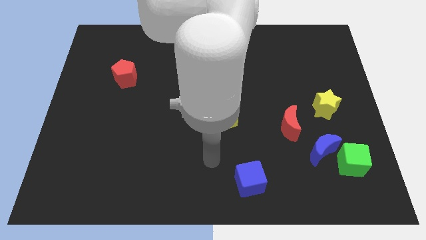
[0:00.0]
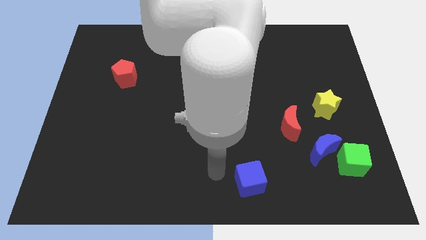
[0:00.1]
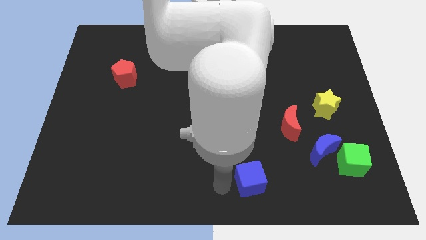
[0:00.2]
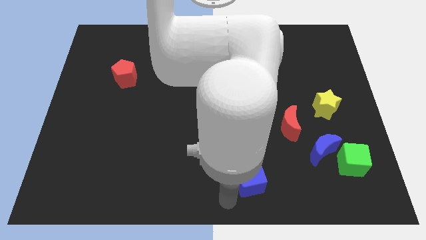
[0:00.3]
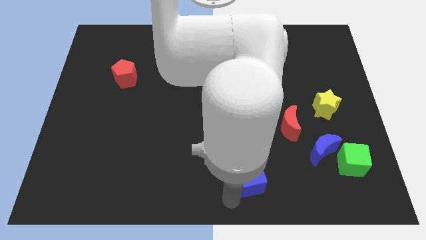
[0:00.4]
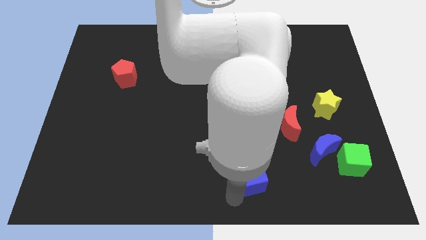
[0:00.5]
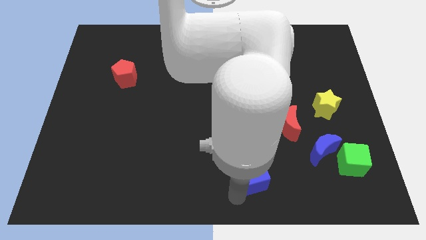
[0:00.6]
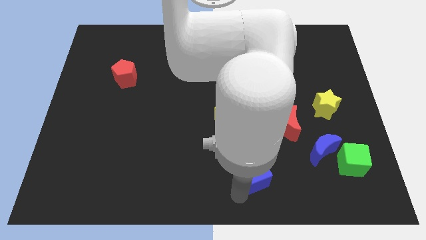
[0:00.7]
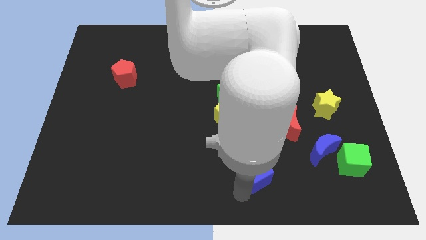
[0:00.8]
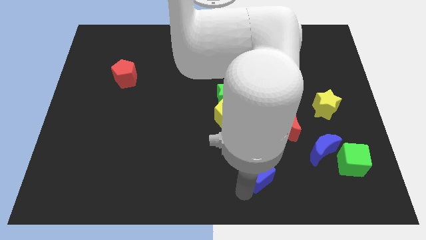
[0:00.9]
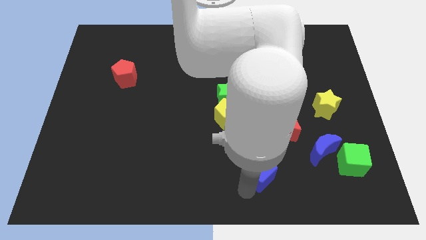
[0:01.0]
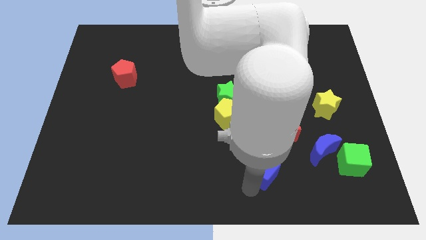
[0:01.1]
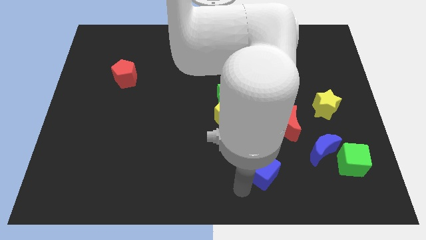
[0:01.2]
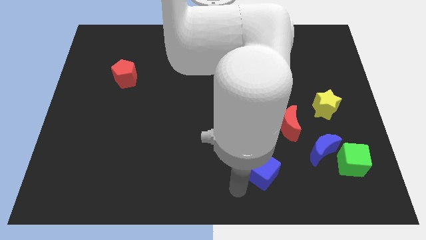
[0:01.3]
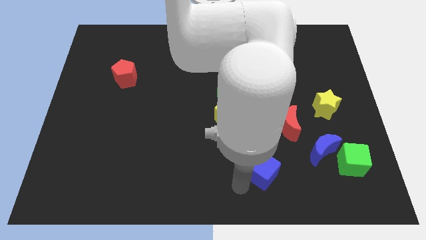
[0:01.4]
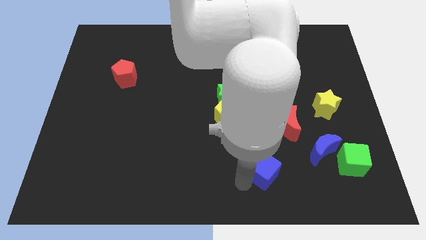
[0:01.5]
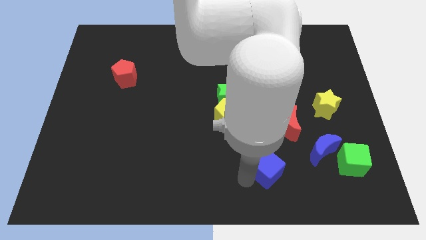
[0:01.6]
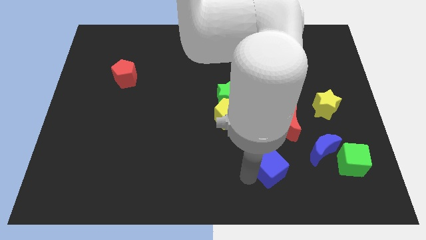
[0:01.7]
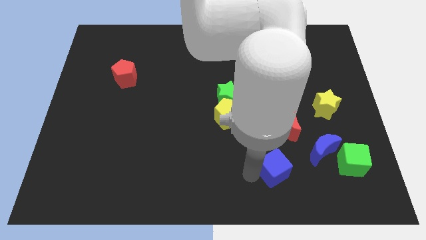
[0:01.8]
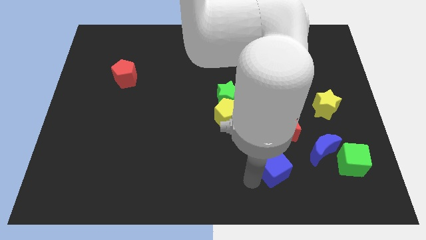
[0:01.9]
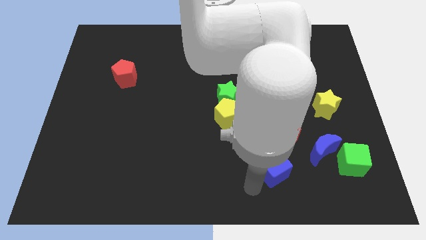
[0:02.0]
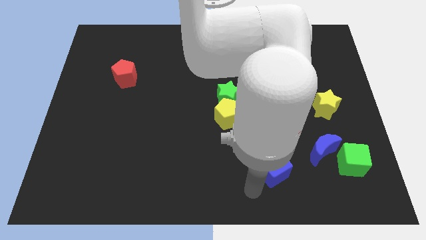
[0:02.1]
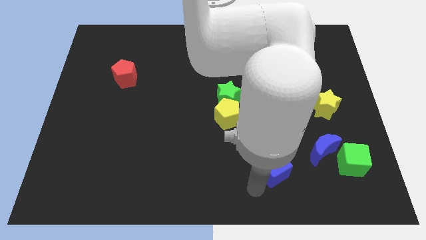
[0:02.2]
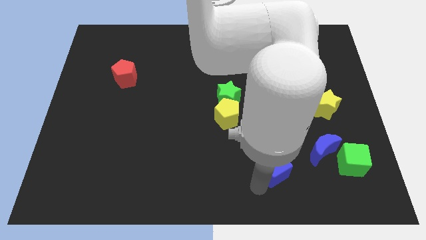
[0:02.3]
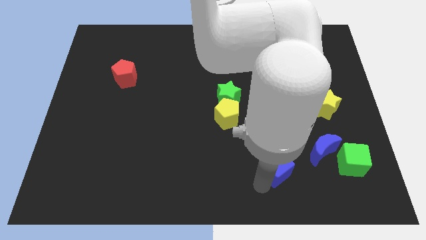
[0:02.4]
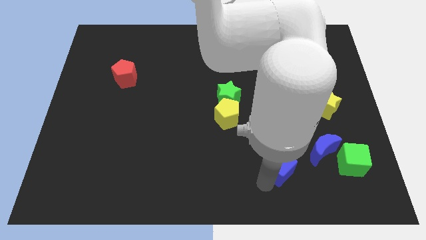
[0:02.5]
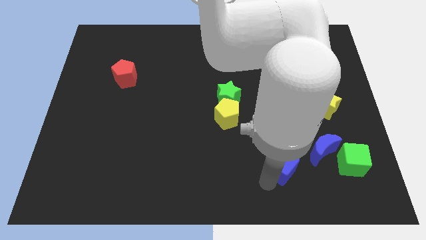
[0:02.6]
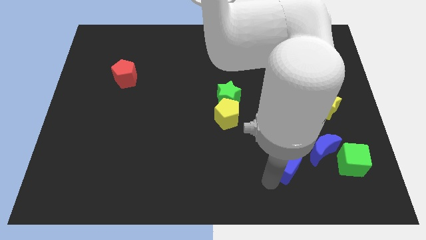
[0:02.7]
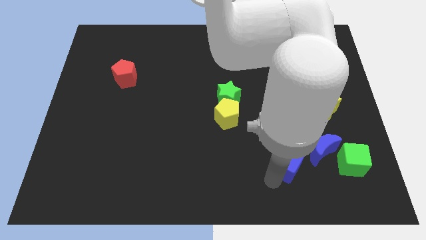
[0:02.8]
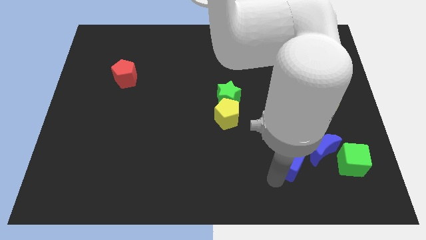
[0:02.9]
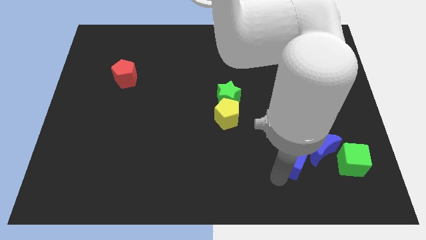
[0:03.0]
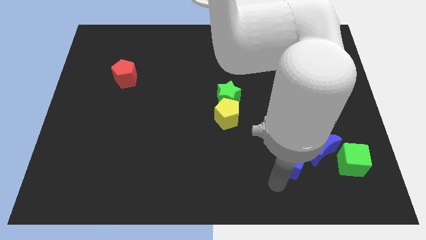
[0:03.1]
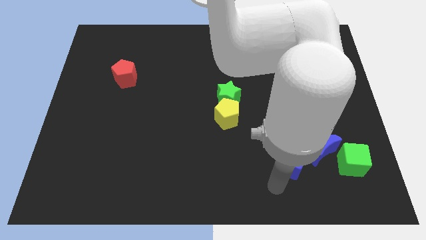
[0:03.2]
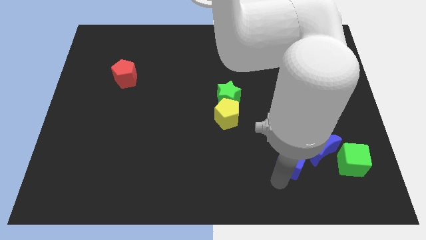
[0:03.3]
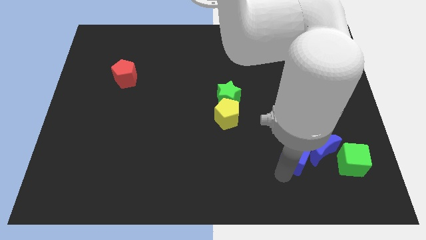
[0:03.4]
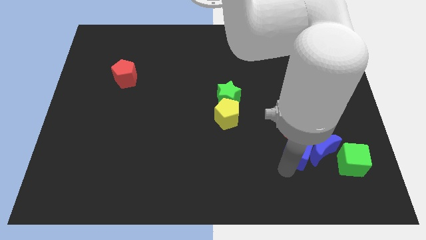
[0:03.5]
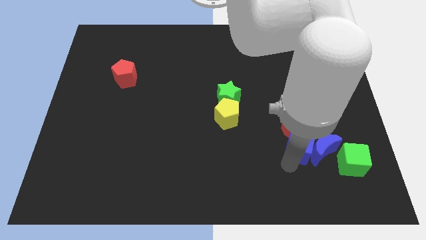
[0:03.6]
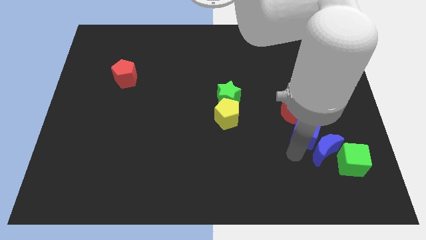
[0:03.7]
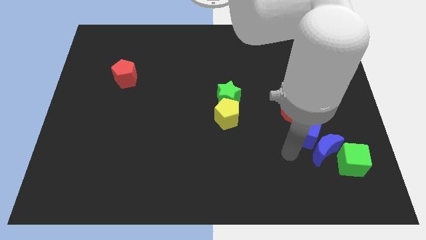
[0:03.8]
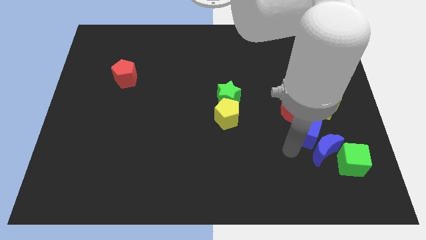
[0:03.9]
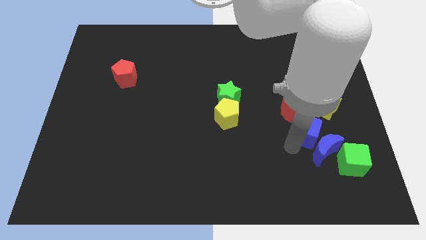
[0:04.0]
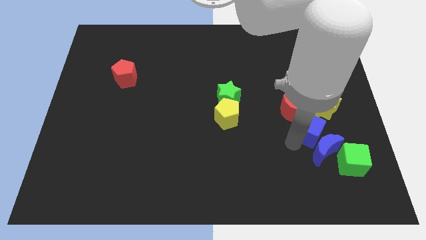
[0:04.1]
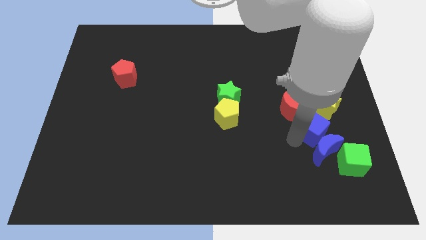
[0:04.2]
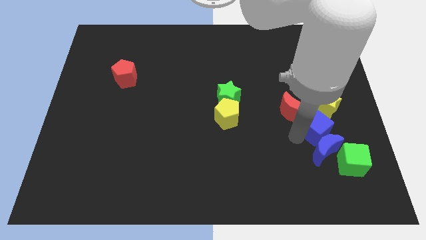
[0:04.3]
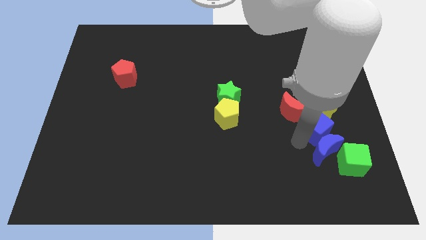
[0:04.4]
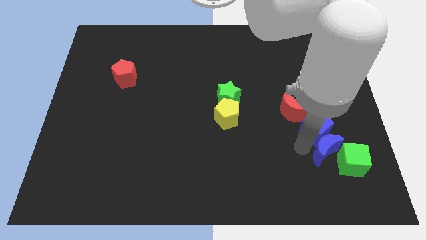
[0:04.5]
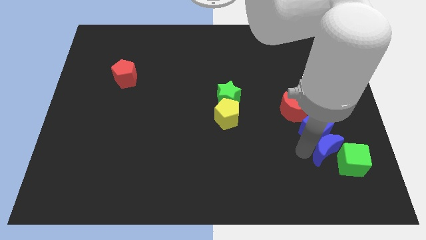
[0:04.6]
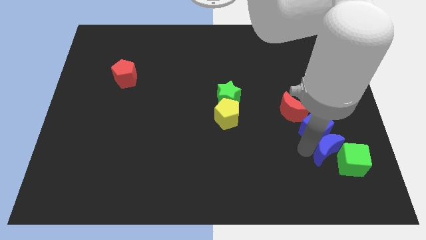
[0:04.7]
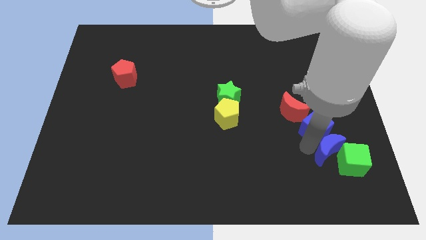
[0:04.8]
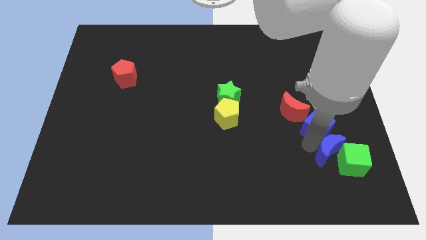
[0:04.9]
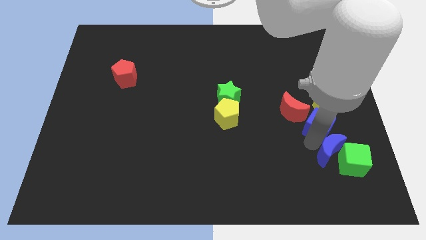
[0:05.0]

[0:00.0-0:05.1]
put the blue cube to the yellow star

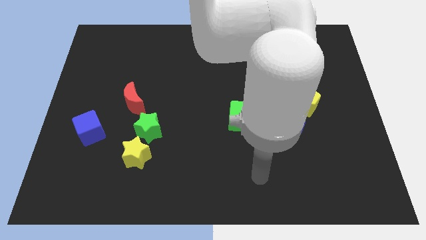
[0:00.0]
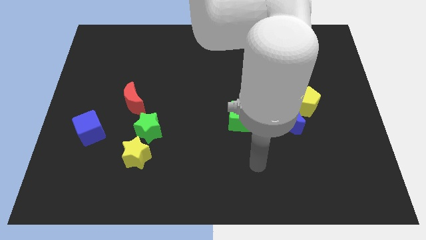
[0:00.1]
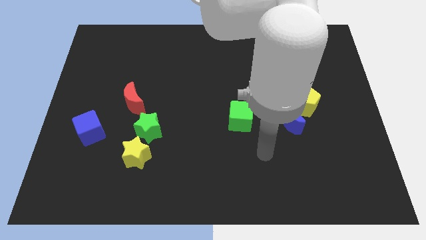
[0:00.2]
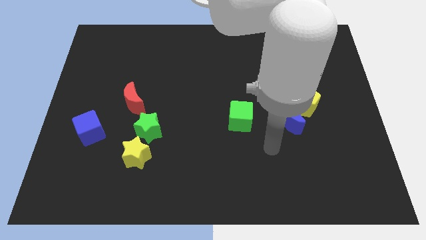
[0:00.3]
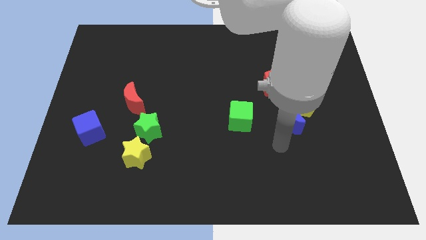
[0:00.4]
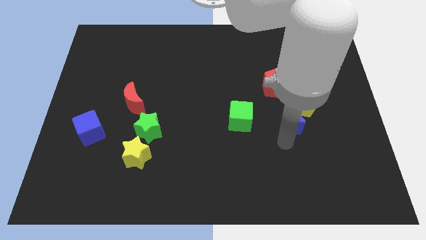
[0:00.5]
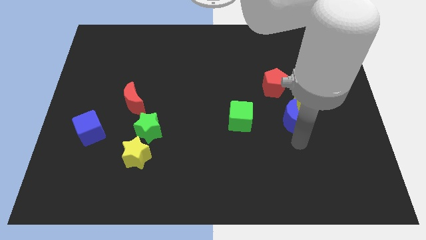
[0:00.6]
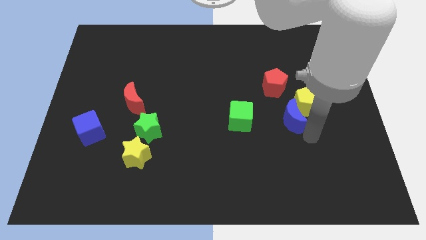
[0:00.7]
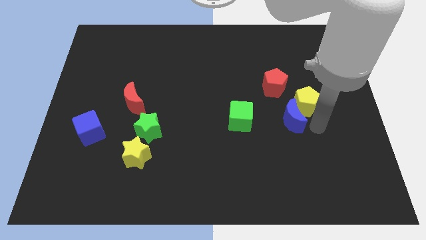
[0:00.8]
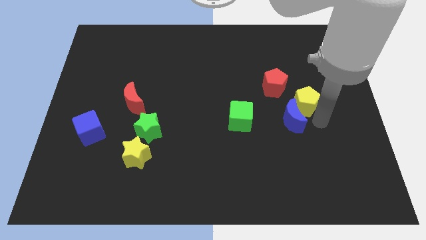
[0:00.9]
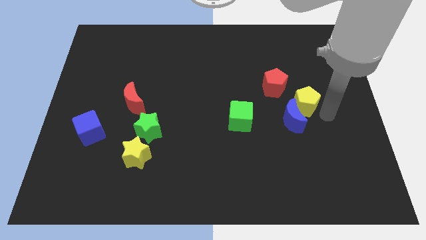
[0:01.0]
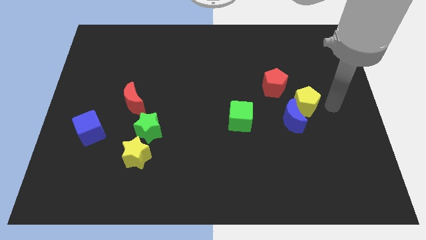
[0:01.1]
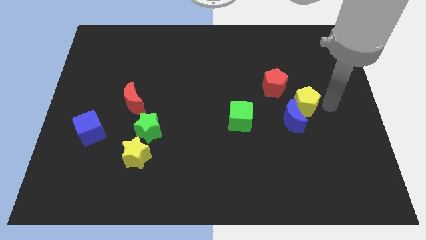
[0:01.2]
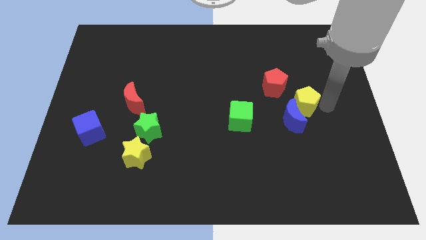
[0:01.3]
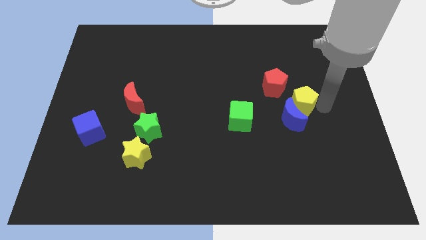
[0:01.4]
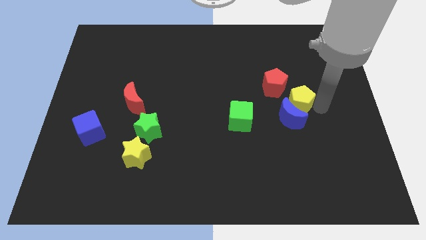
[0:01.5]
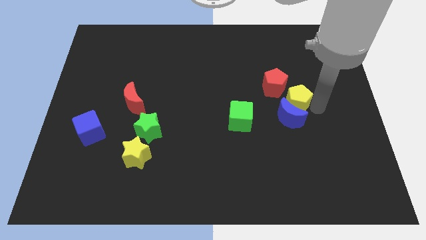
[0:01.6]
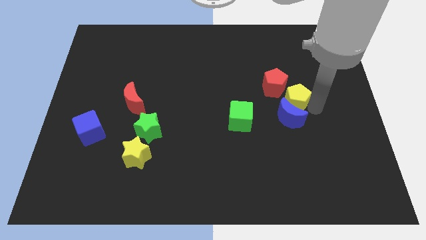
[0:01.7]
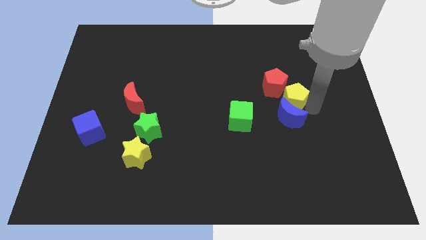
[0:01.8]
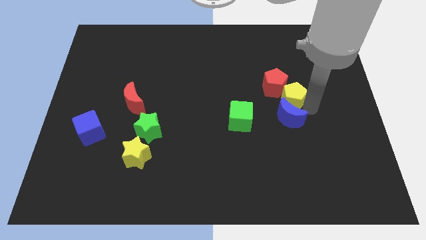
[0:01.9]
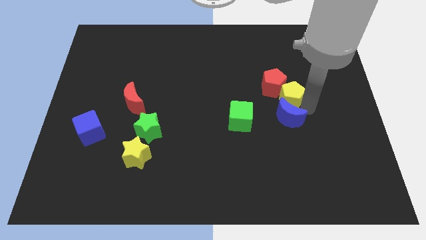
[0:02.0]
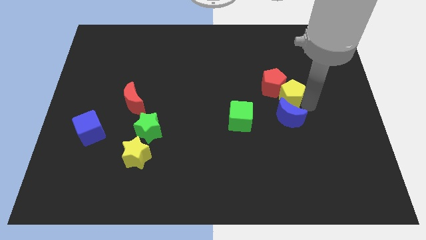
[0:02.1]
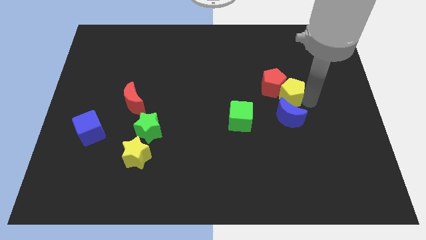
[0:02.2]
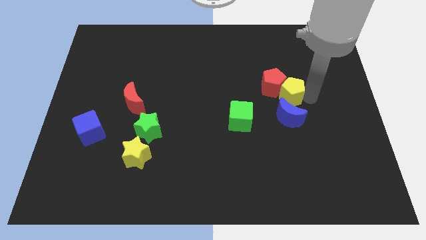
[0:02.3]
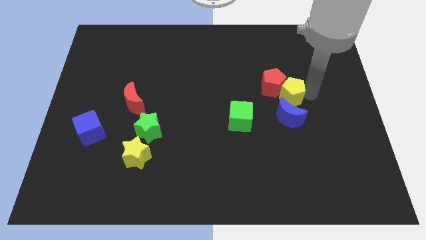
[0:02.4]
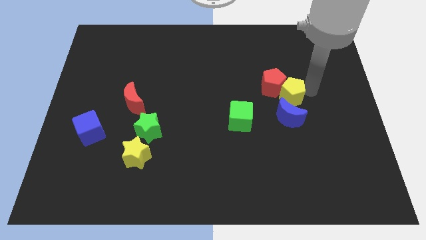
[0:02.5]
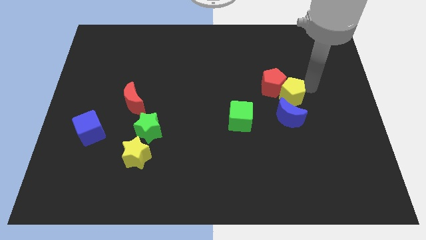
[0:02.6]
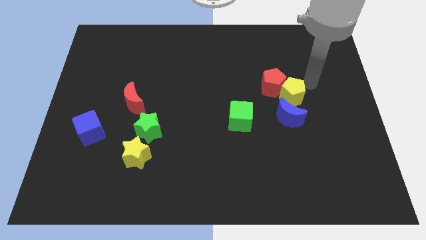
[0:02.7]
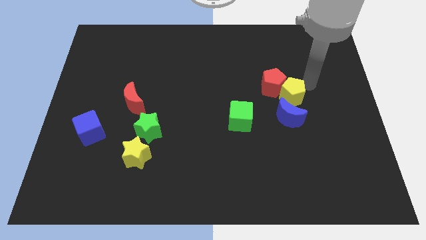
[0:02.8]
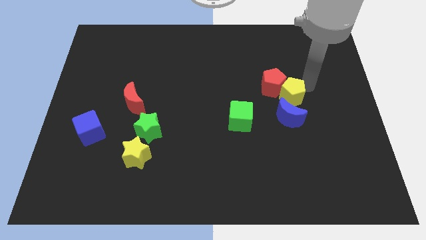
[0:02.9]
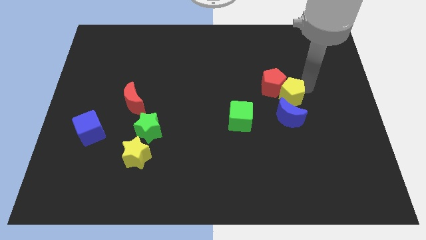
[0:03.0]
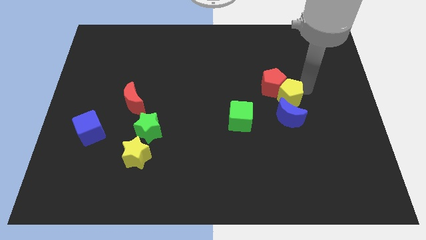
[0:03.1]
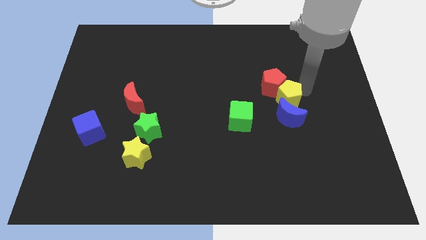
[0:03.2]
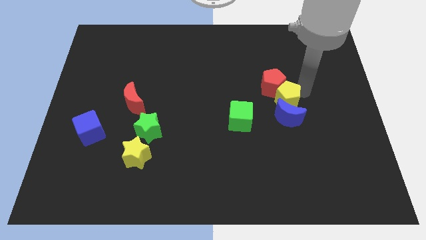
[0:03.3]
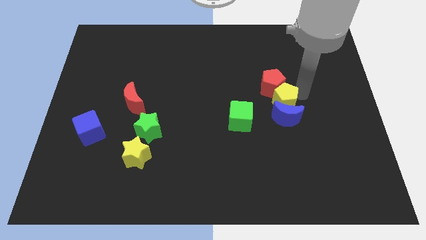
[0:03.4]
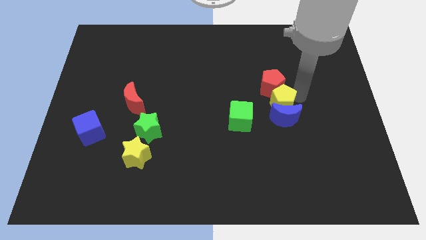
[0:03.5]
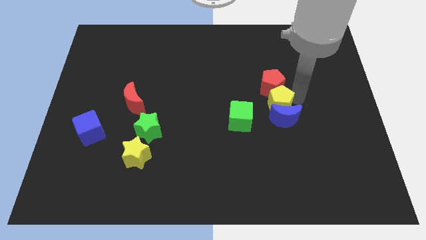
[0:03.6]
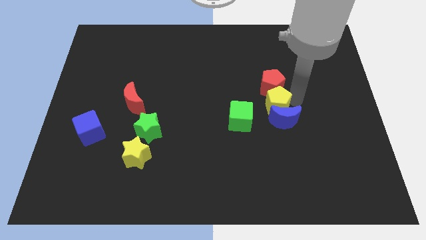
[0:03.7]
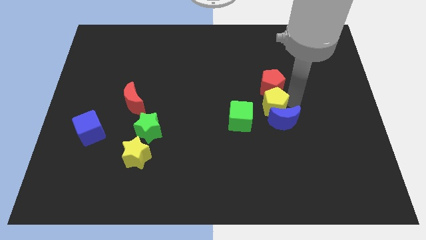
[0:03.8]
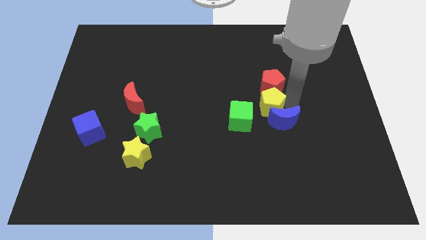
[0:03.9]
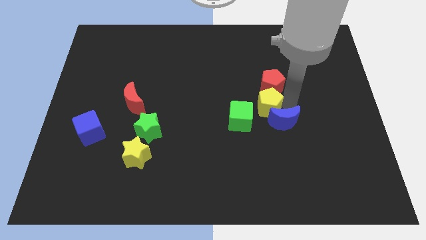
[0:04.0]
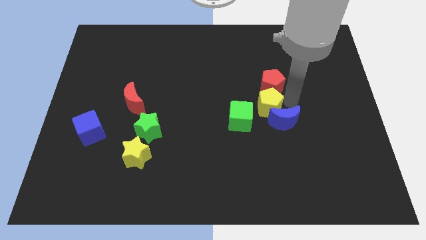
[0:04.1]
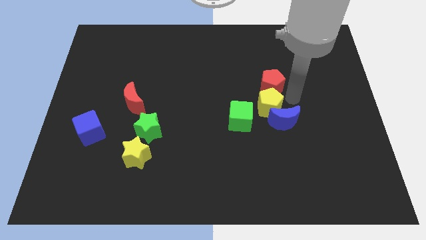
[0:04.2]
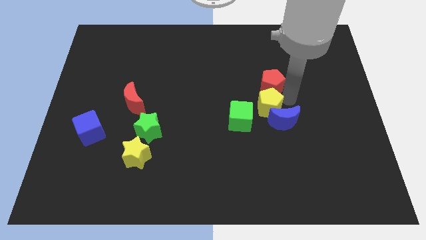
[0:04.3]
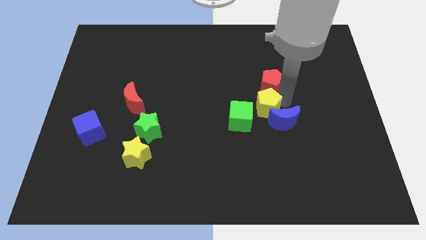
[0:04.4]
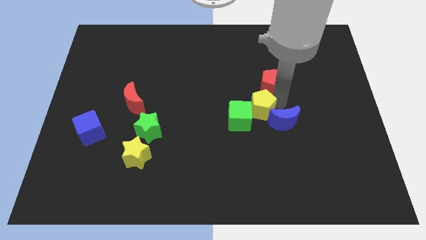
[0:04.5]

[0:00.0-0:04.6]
move the yellow pentagon towards the green cube
